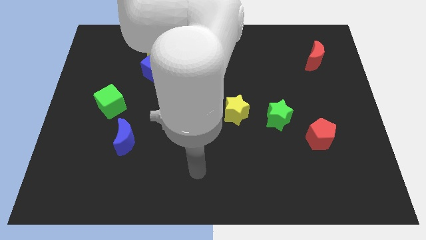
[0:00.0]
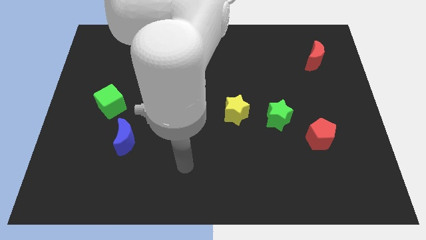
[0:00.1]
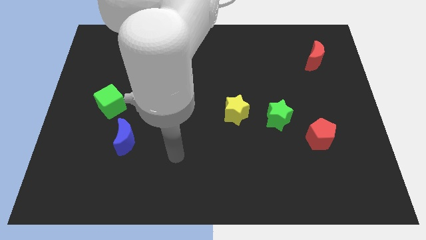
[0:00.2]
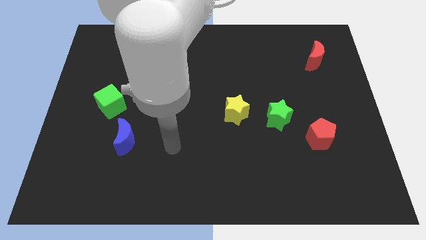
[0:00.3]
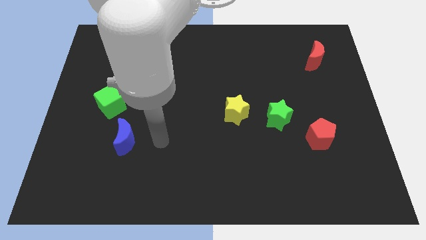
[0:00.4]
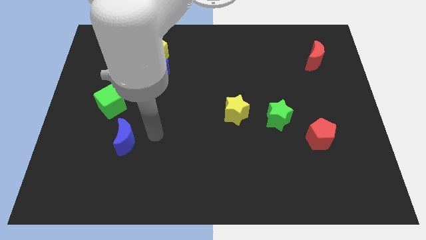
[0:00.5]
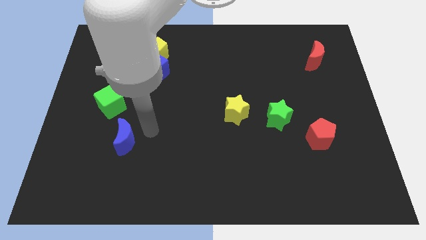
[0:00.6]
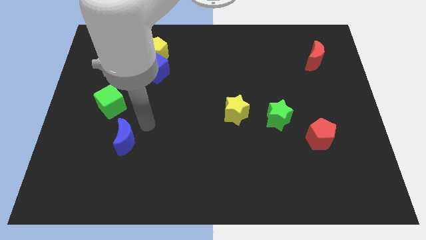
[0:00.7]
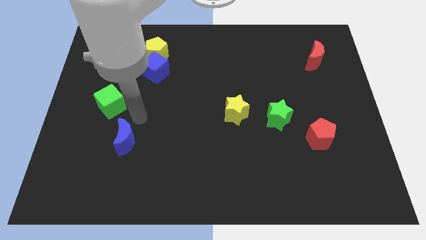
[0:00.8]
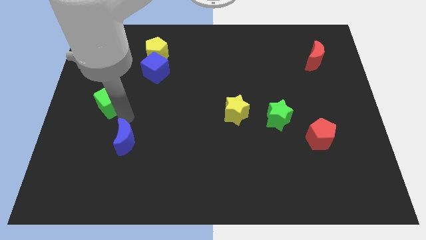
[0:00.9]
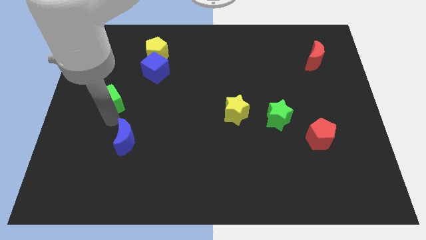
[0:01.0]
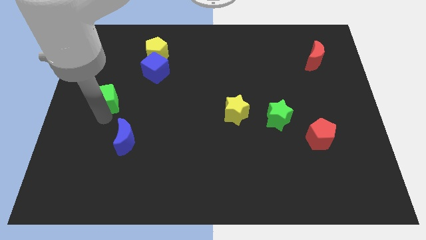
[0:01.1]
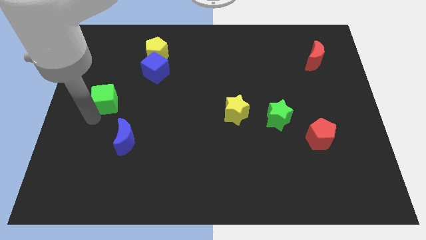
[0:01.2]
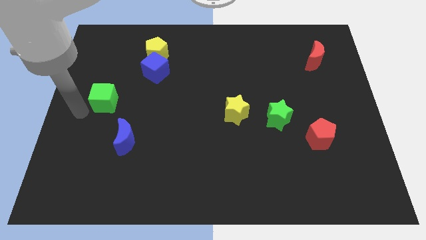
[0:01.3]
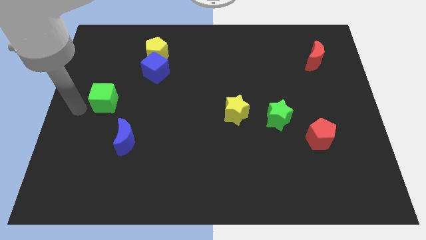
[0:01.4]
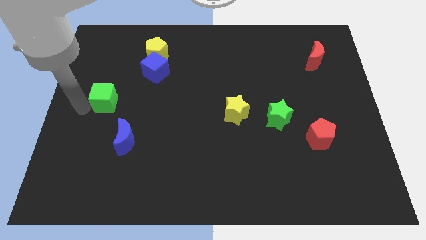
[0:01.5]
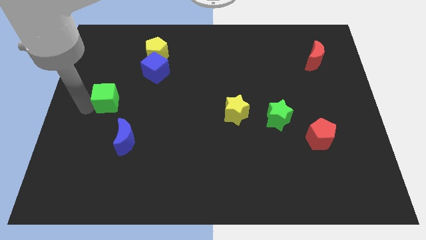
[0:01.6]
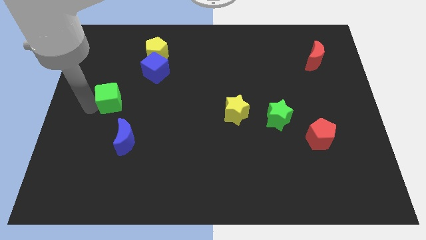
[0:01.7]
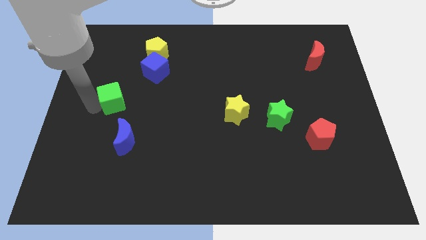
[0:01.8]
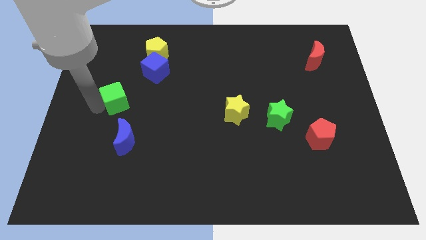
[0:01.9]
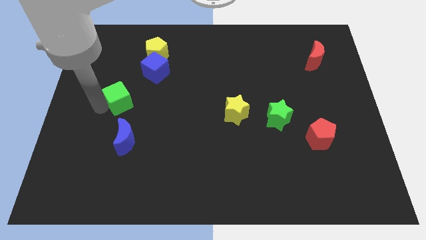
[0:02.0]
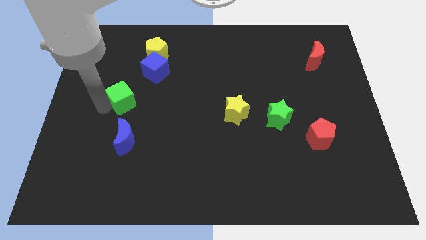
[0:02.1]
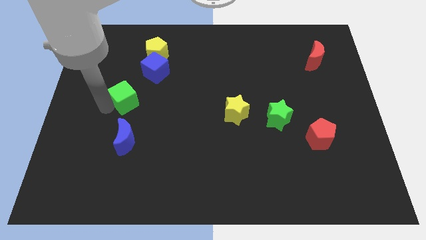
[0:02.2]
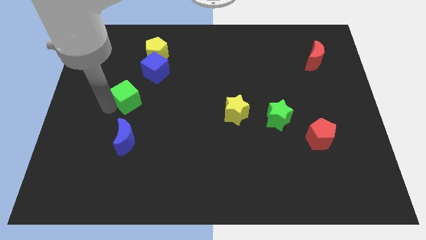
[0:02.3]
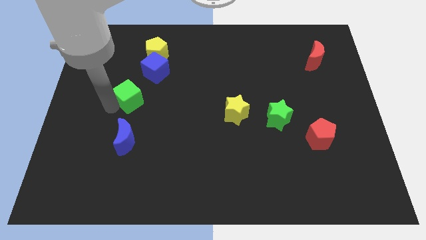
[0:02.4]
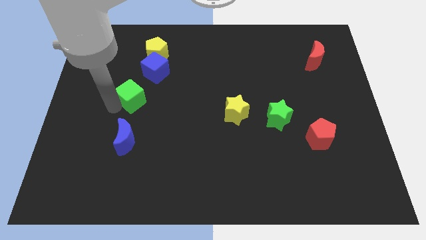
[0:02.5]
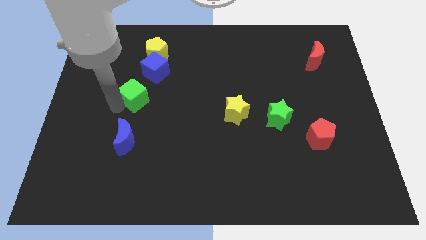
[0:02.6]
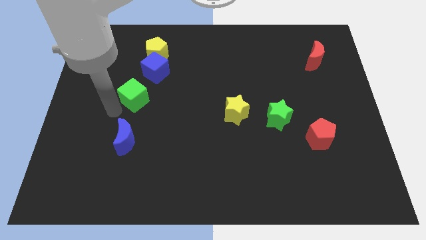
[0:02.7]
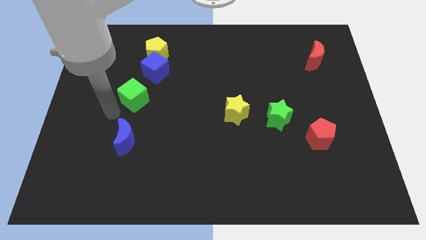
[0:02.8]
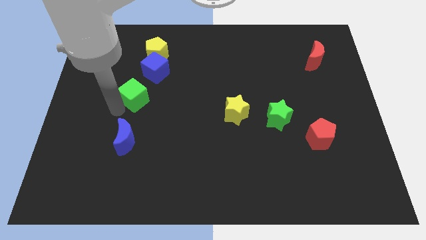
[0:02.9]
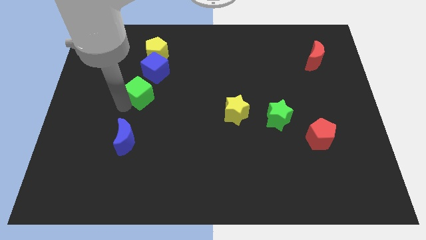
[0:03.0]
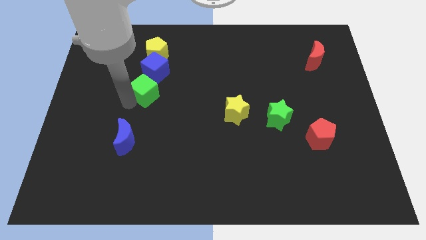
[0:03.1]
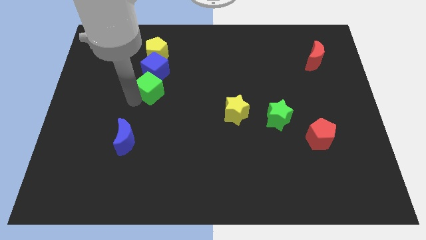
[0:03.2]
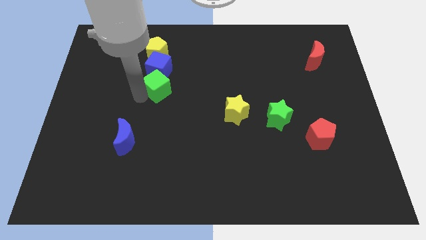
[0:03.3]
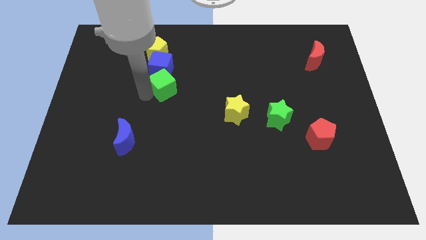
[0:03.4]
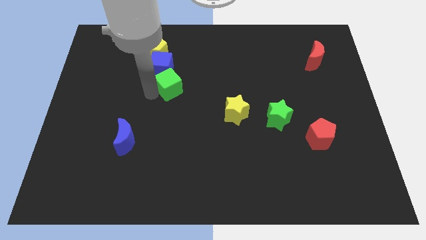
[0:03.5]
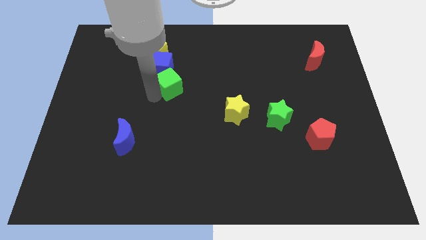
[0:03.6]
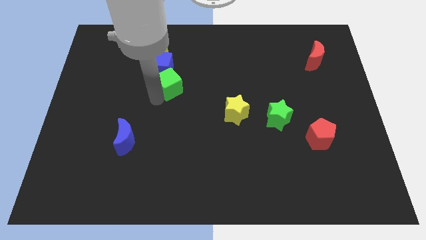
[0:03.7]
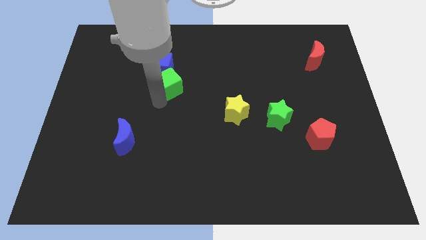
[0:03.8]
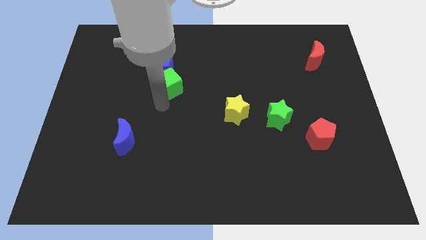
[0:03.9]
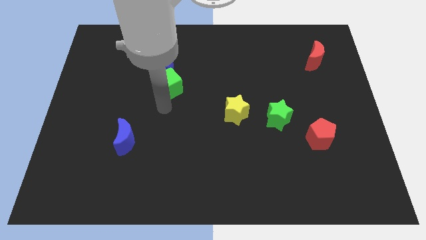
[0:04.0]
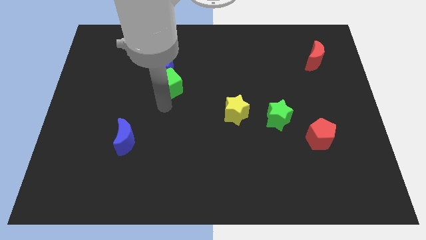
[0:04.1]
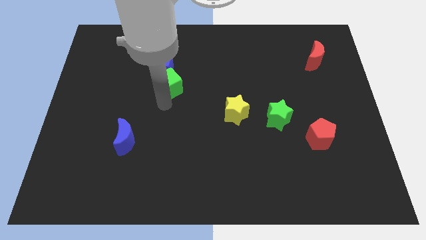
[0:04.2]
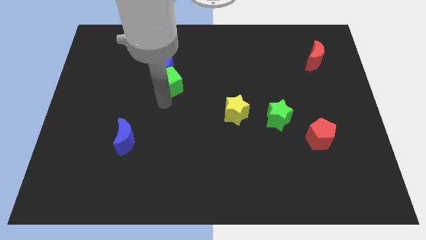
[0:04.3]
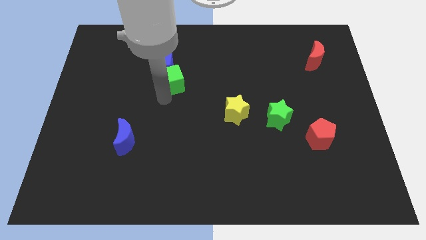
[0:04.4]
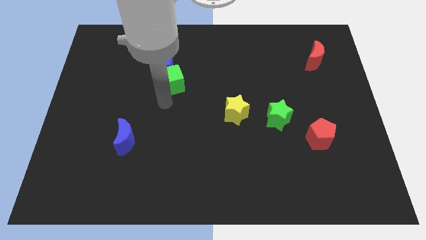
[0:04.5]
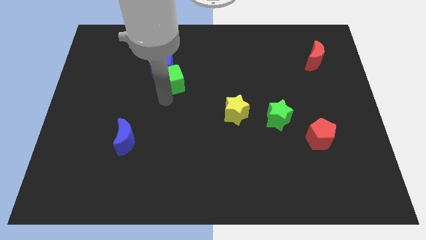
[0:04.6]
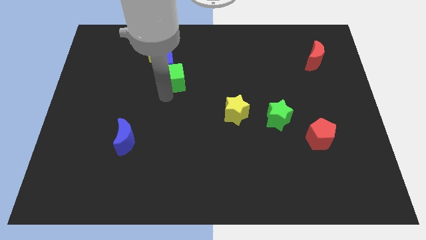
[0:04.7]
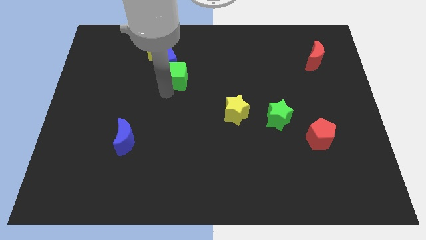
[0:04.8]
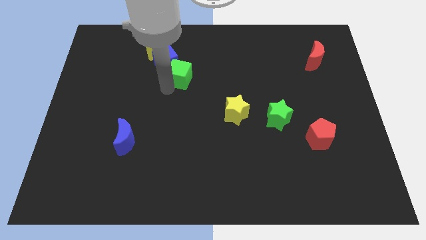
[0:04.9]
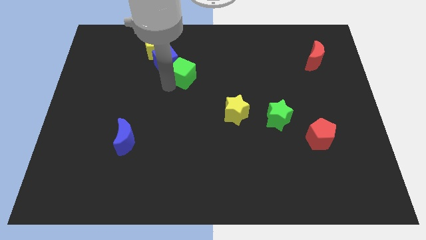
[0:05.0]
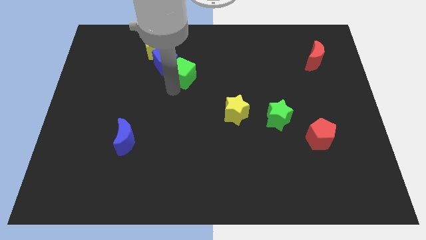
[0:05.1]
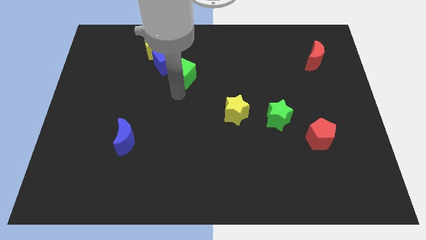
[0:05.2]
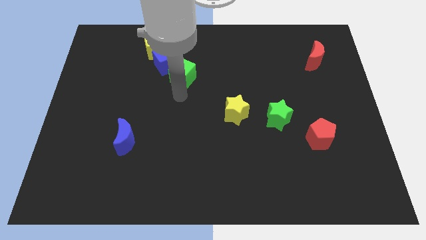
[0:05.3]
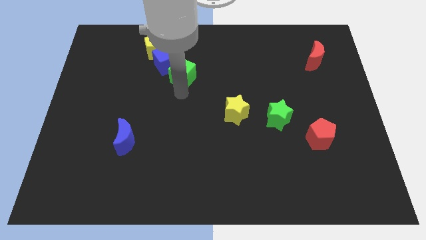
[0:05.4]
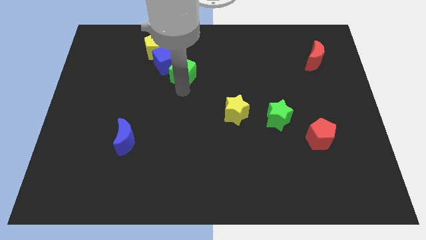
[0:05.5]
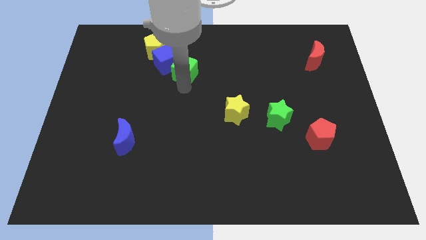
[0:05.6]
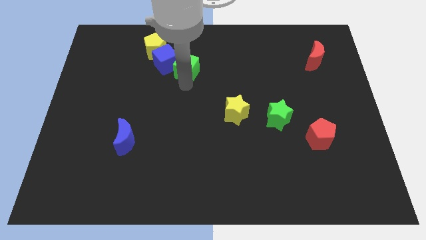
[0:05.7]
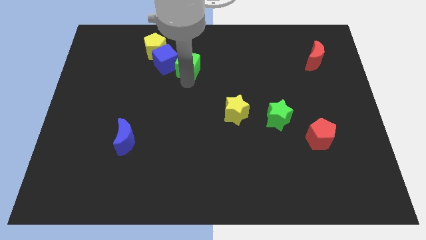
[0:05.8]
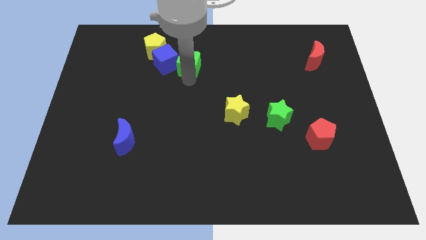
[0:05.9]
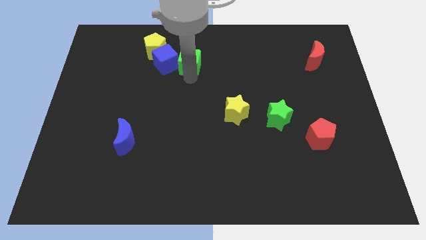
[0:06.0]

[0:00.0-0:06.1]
push the green cube diagonally up and to the right of the blue cube

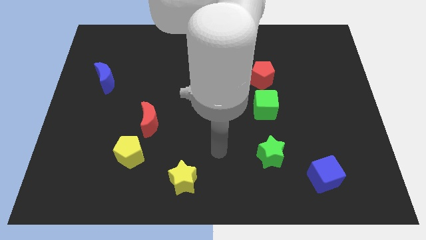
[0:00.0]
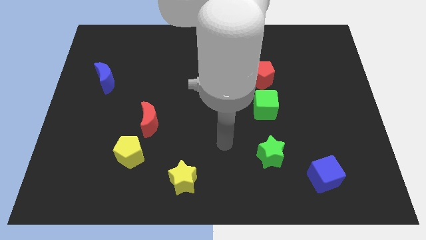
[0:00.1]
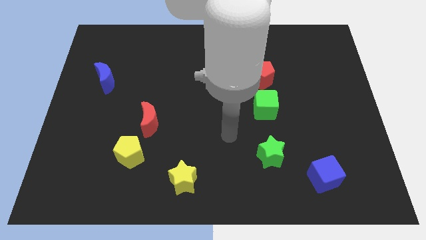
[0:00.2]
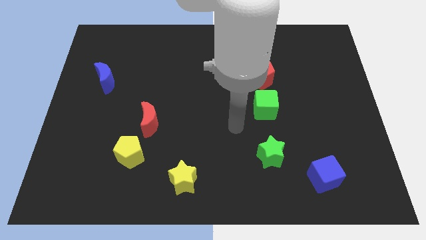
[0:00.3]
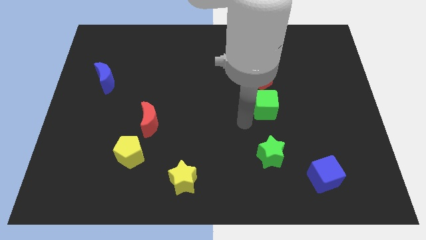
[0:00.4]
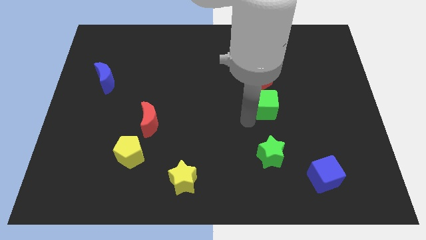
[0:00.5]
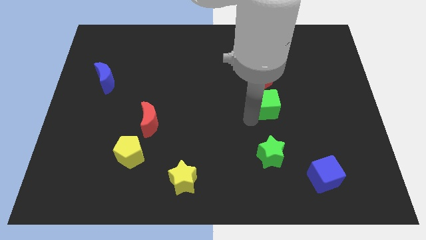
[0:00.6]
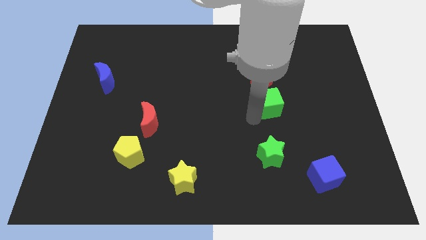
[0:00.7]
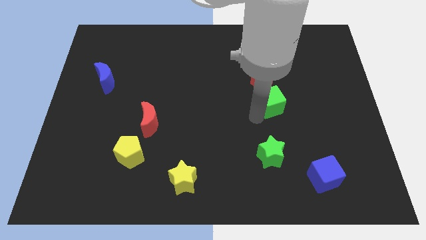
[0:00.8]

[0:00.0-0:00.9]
move the green cube to the bottom right of the red pentagon
